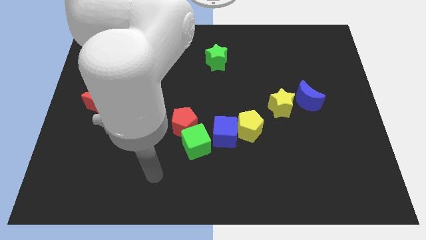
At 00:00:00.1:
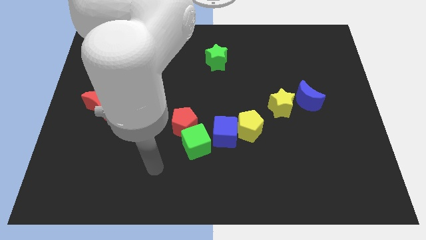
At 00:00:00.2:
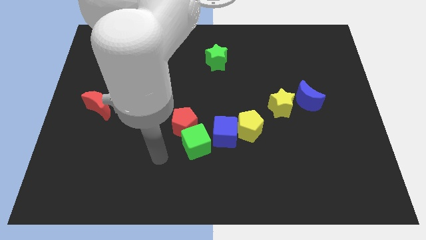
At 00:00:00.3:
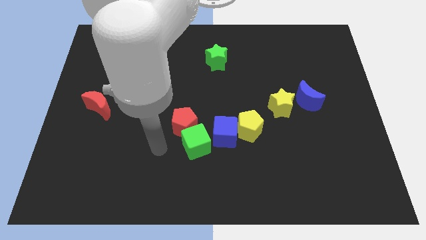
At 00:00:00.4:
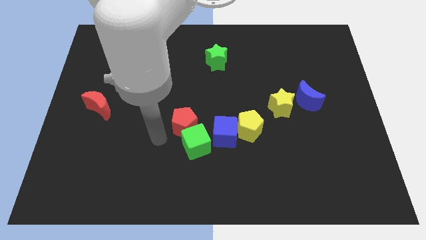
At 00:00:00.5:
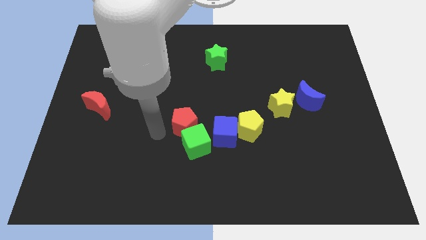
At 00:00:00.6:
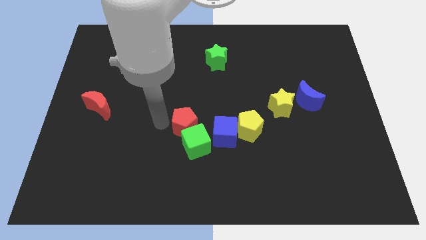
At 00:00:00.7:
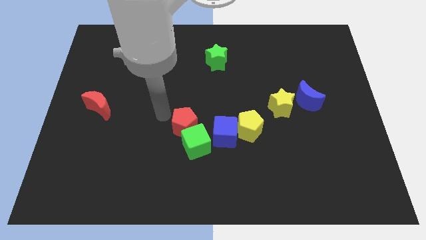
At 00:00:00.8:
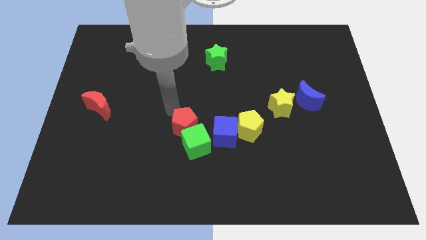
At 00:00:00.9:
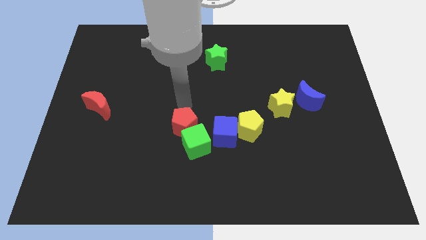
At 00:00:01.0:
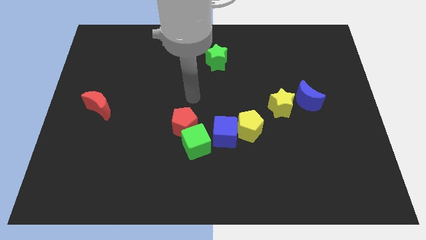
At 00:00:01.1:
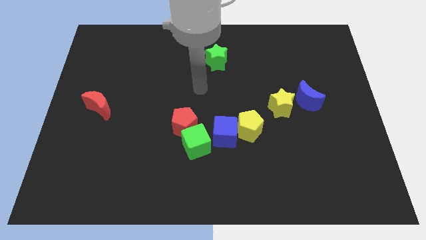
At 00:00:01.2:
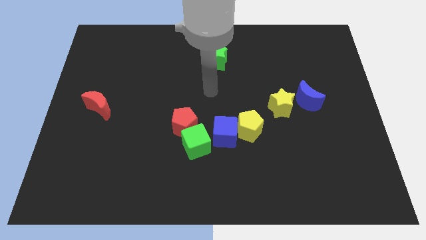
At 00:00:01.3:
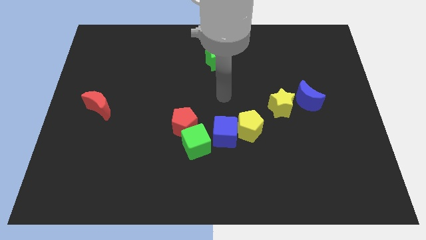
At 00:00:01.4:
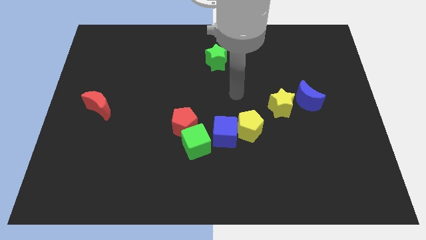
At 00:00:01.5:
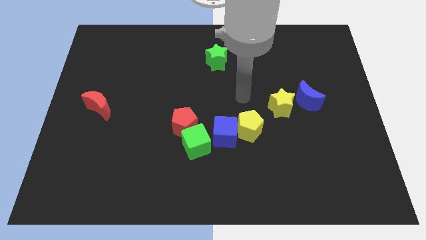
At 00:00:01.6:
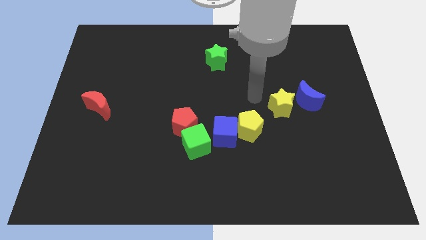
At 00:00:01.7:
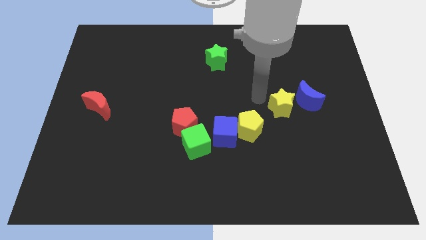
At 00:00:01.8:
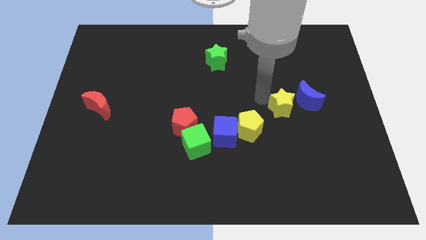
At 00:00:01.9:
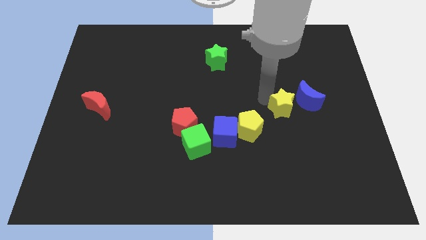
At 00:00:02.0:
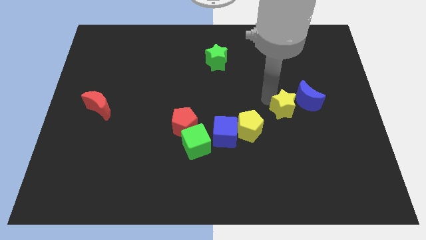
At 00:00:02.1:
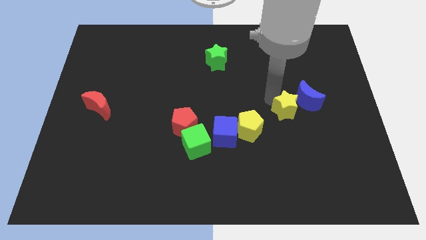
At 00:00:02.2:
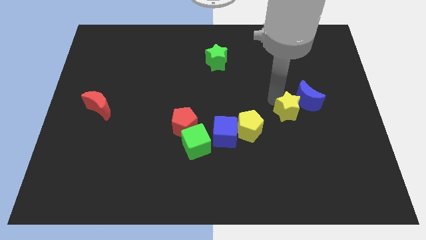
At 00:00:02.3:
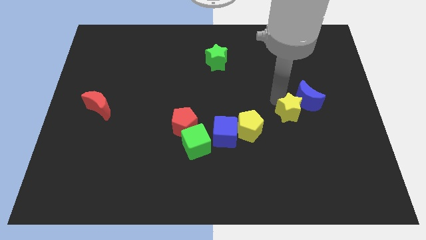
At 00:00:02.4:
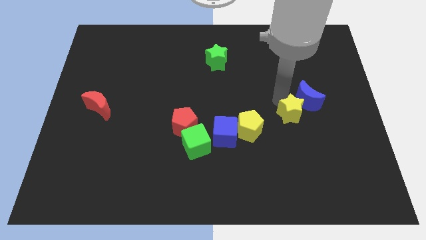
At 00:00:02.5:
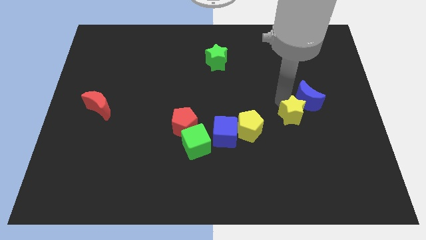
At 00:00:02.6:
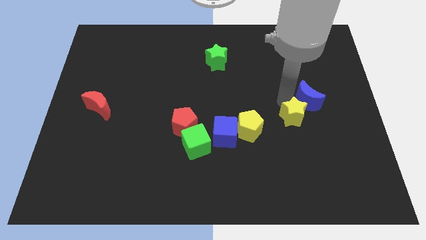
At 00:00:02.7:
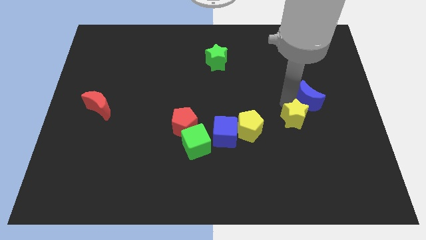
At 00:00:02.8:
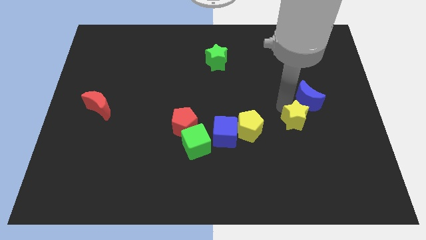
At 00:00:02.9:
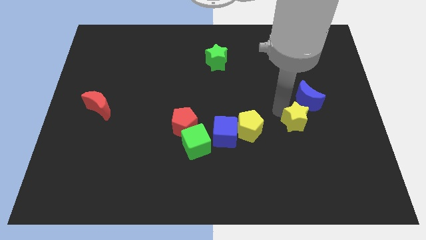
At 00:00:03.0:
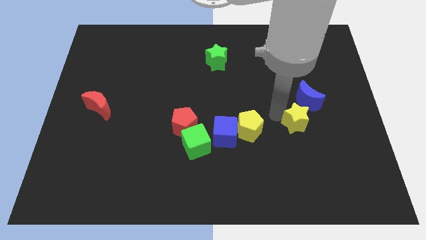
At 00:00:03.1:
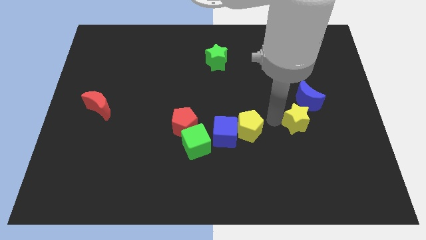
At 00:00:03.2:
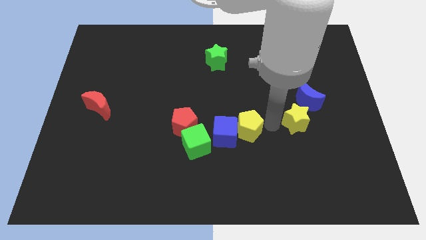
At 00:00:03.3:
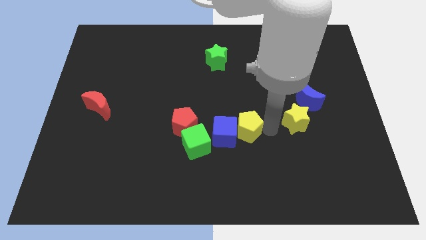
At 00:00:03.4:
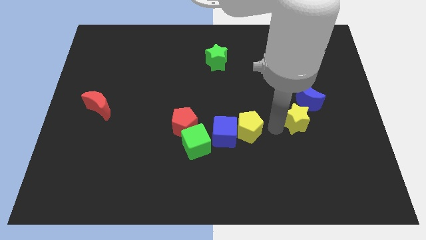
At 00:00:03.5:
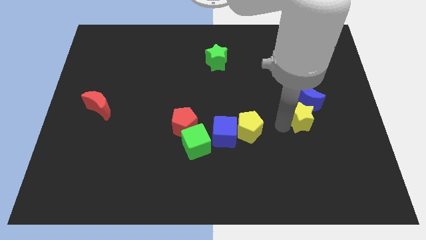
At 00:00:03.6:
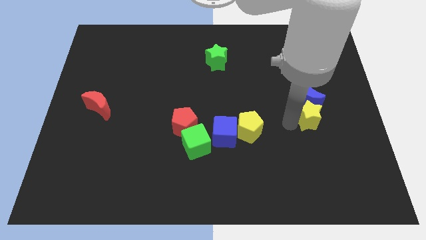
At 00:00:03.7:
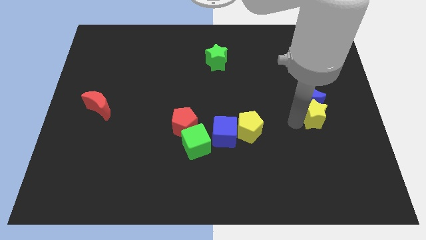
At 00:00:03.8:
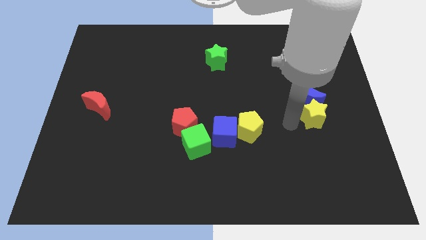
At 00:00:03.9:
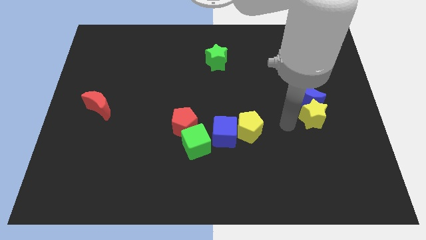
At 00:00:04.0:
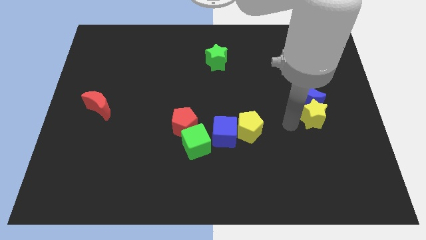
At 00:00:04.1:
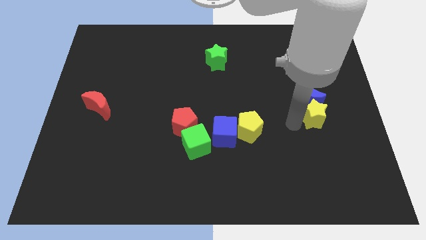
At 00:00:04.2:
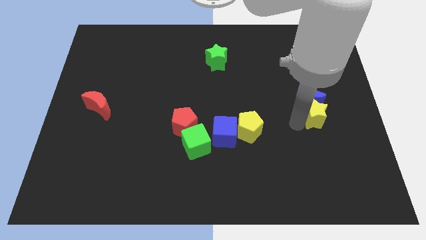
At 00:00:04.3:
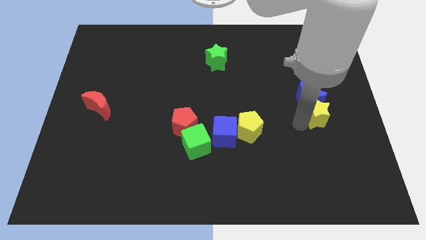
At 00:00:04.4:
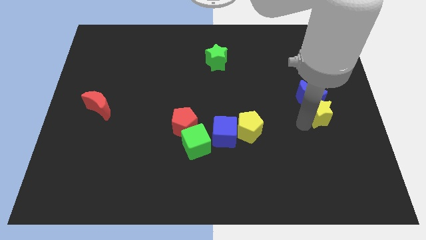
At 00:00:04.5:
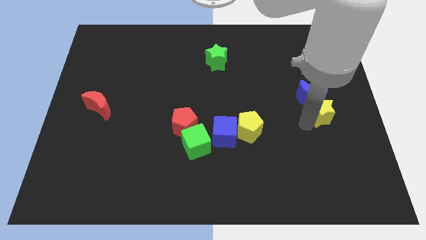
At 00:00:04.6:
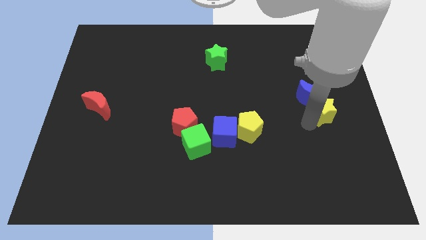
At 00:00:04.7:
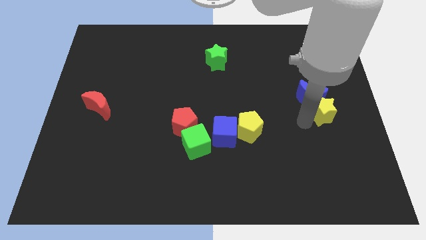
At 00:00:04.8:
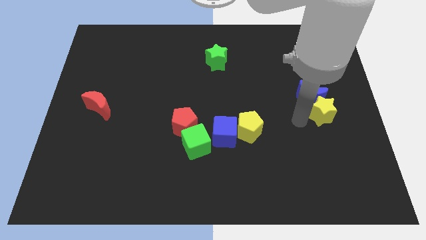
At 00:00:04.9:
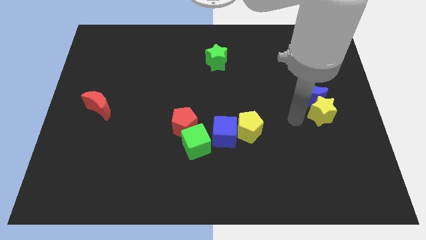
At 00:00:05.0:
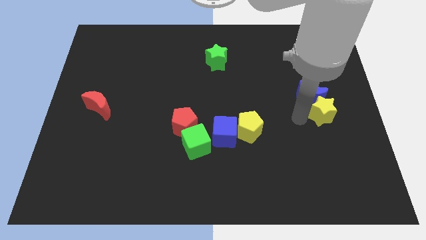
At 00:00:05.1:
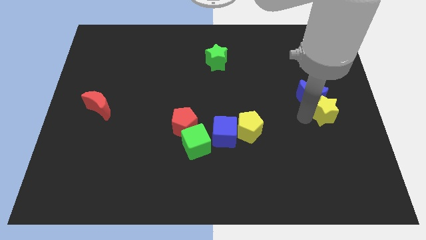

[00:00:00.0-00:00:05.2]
put the yellow star to the right side
